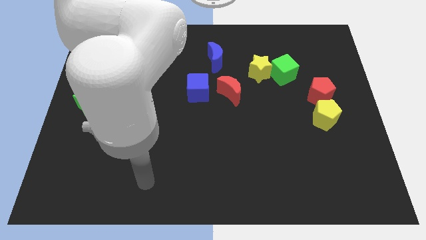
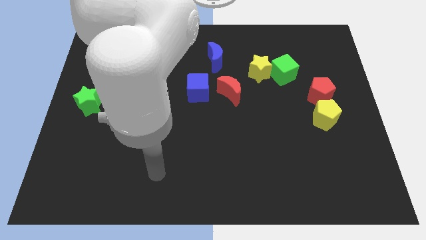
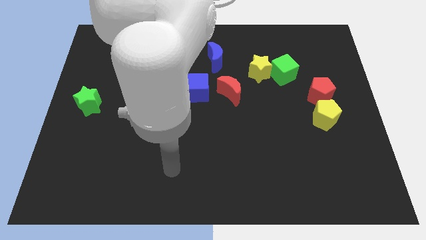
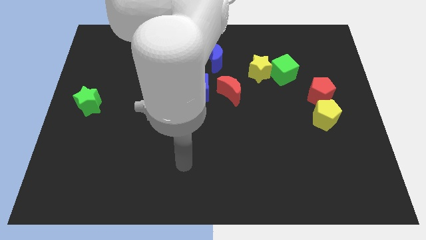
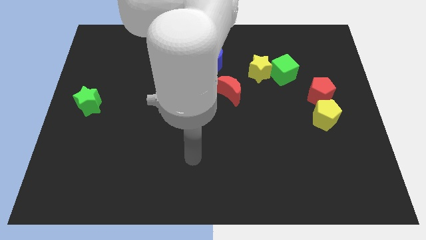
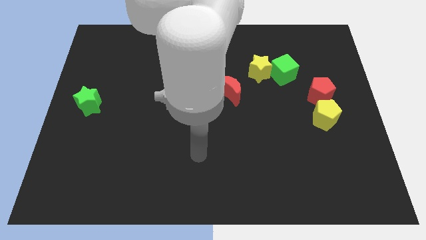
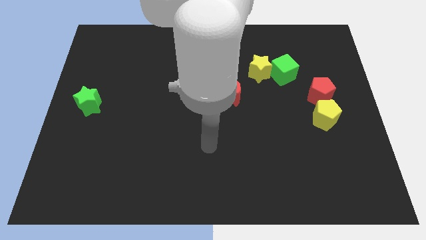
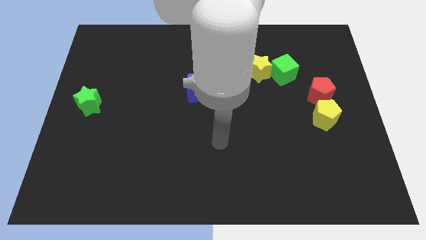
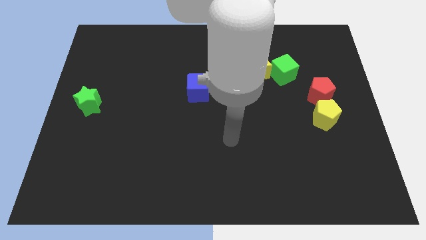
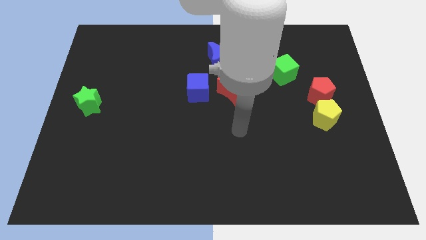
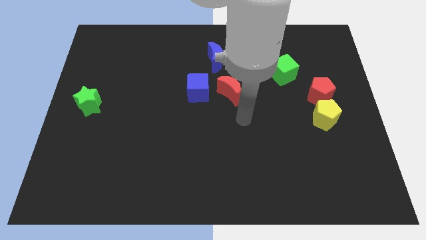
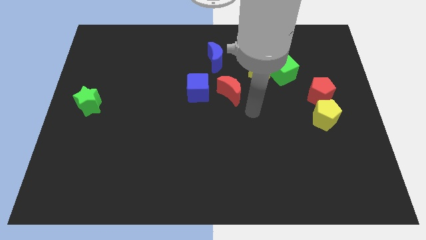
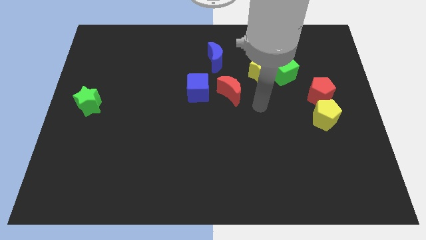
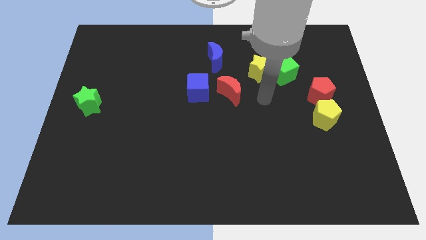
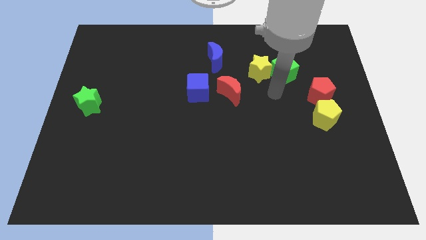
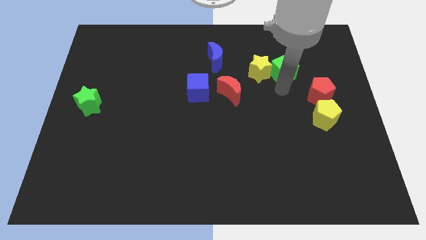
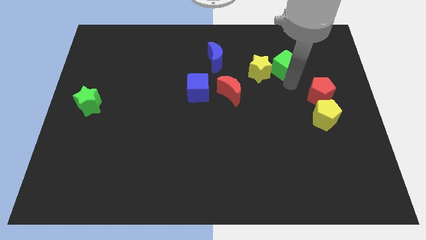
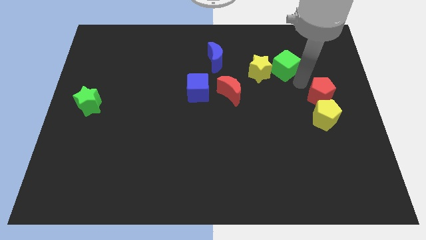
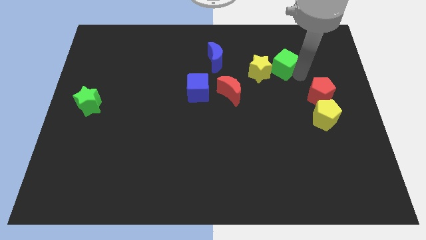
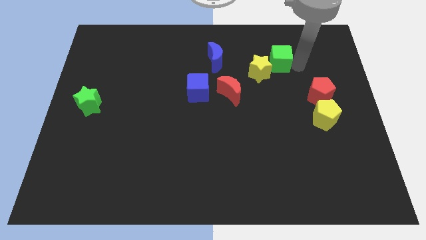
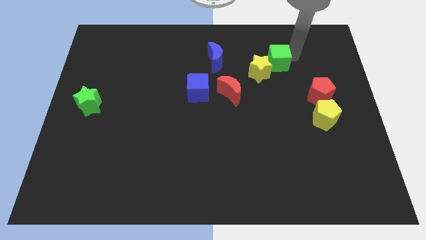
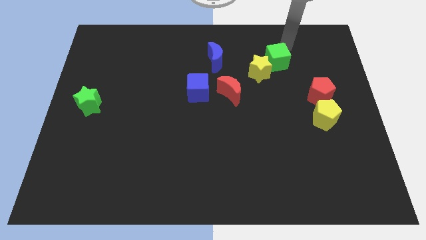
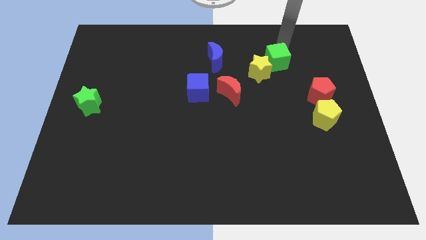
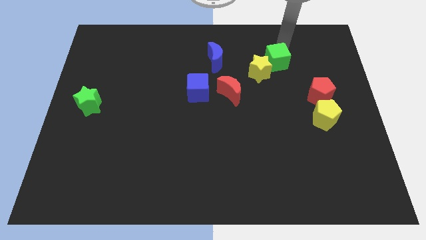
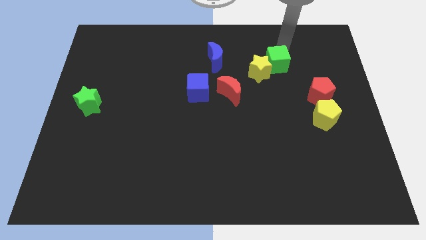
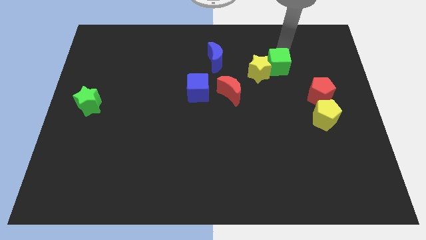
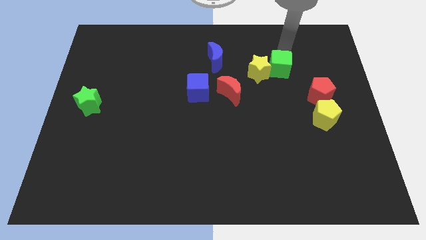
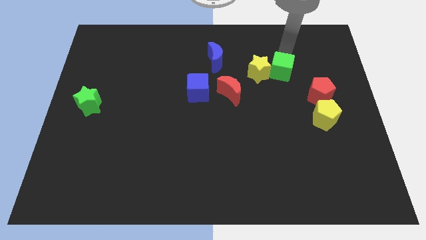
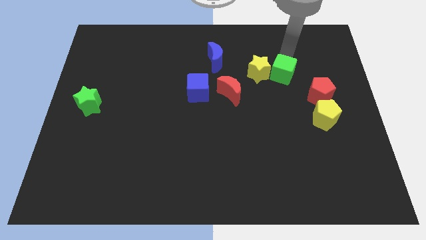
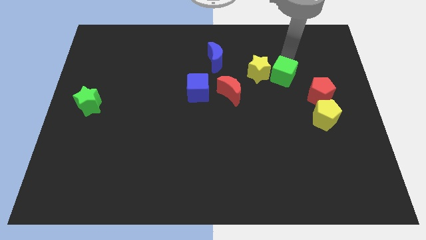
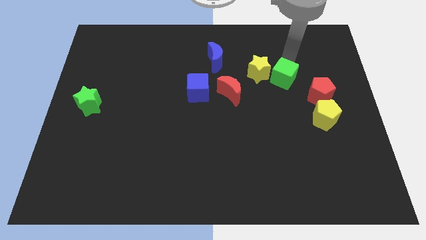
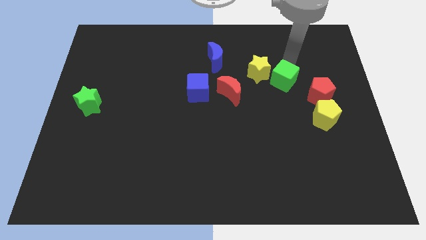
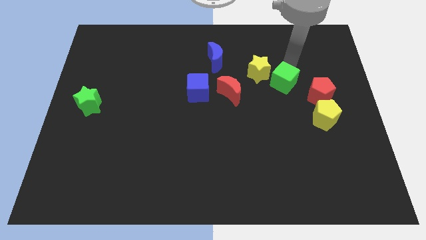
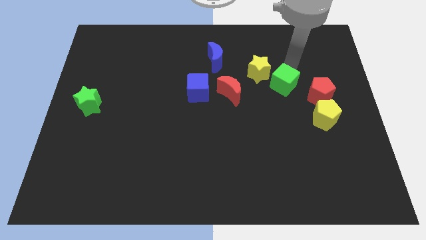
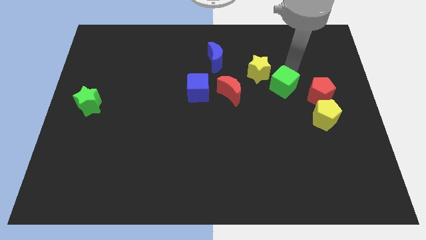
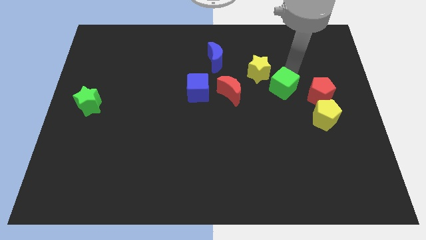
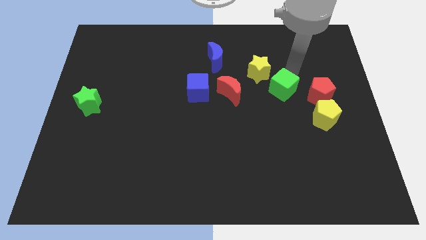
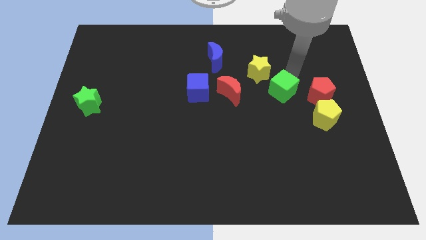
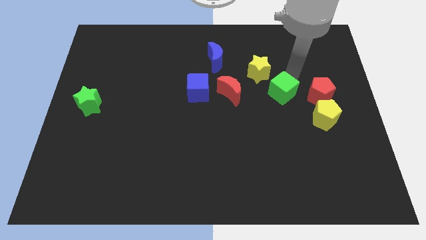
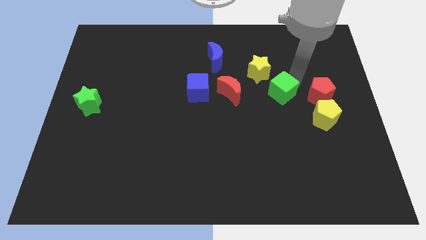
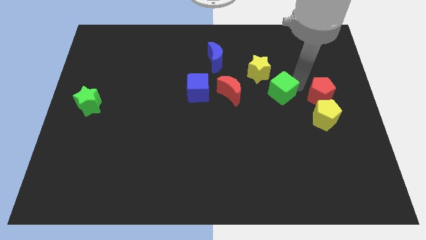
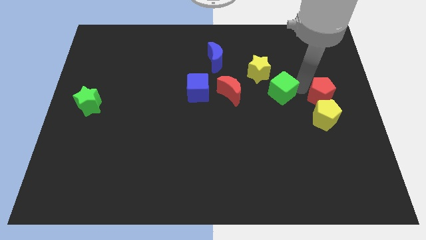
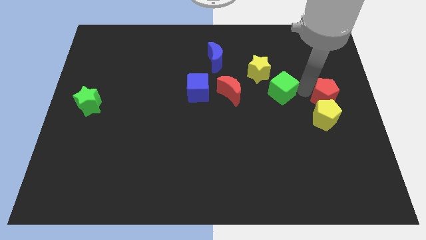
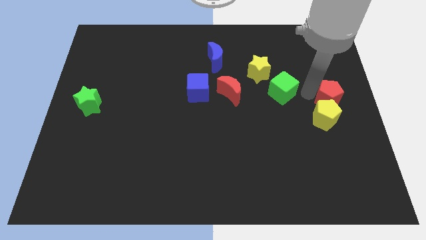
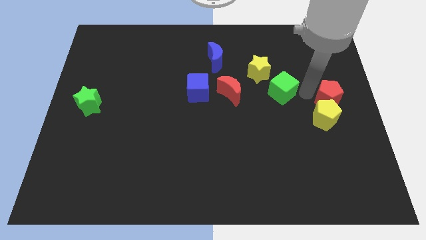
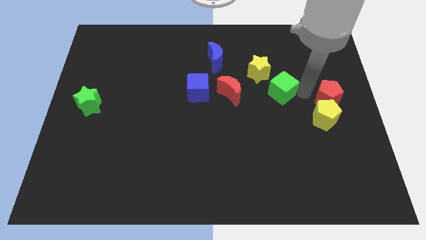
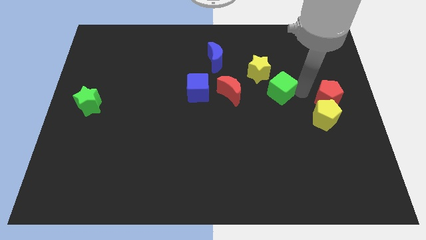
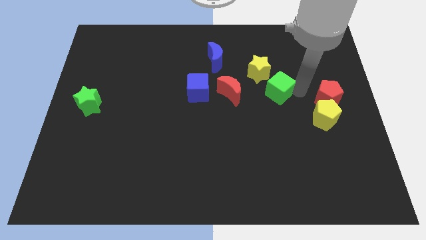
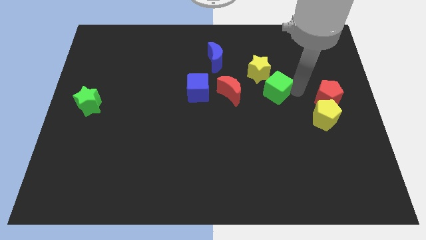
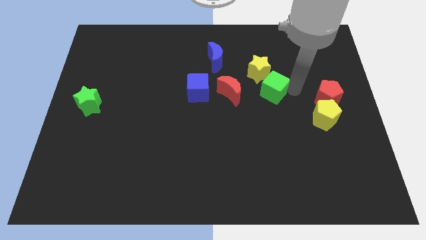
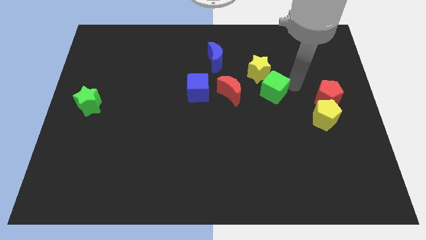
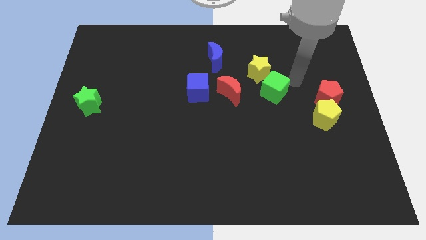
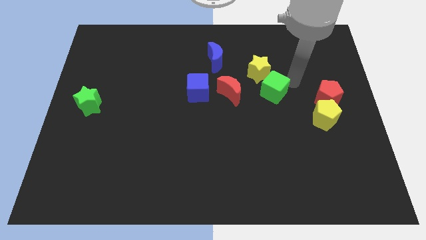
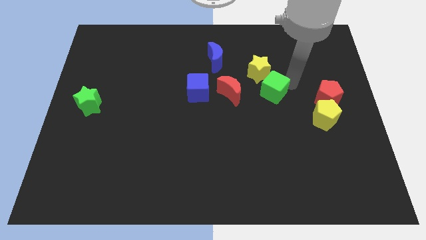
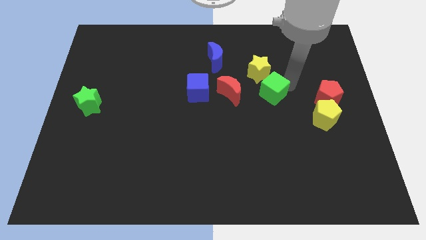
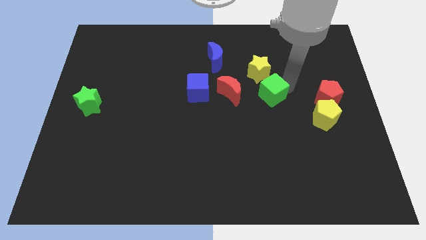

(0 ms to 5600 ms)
move the green cube downwards and left a bit

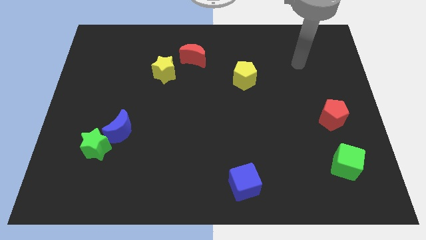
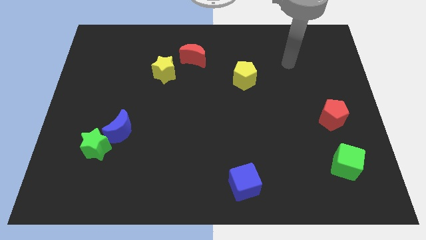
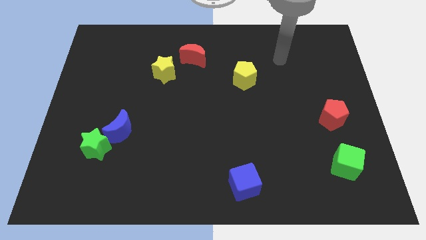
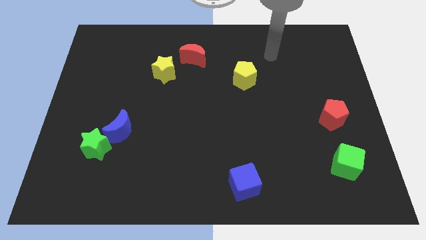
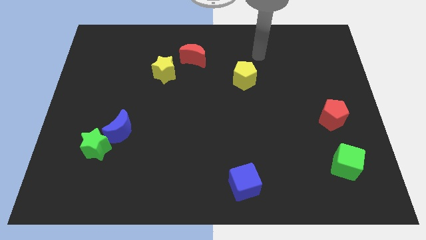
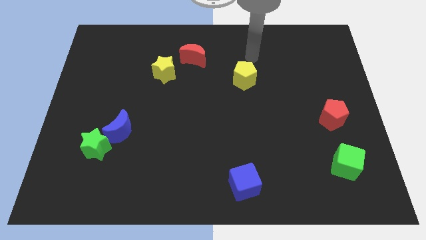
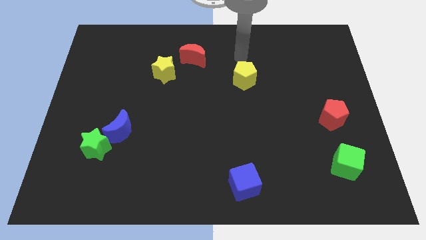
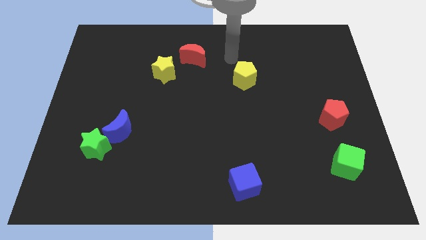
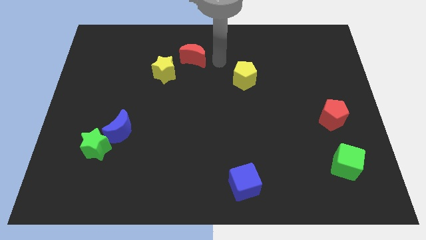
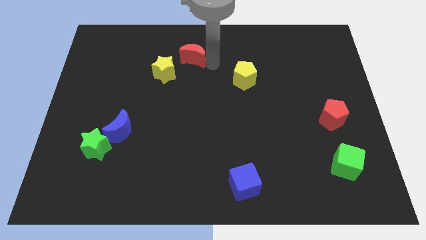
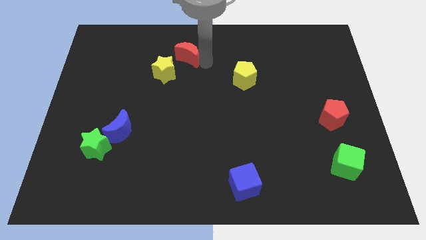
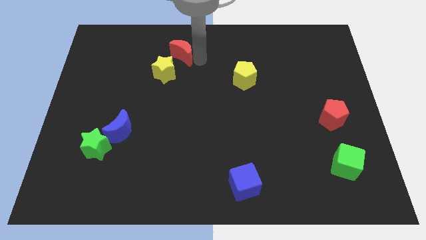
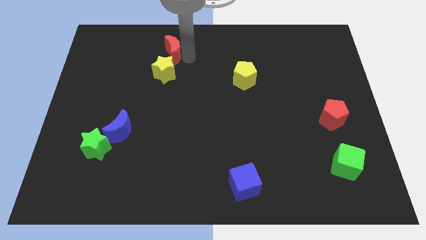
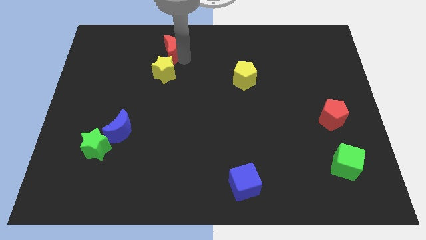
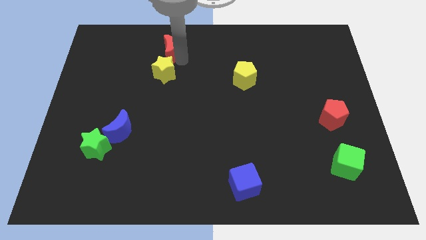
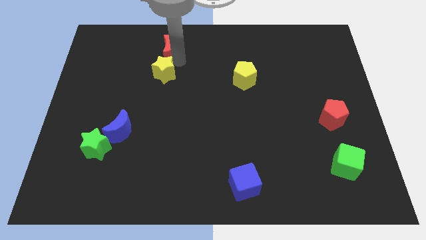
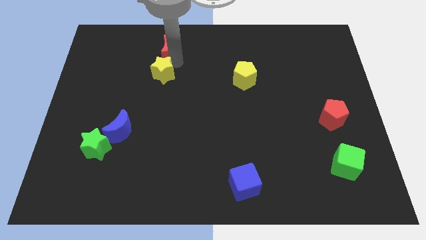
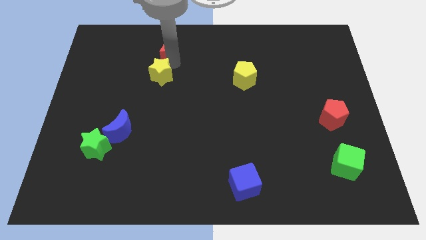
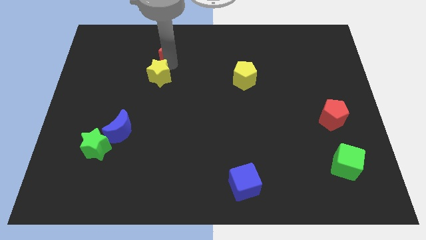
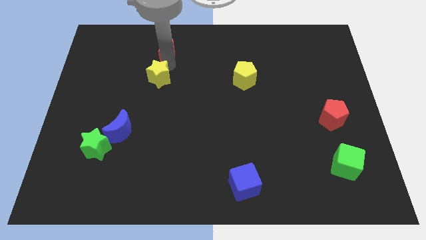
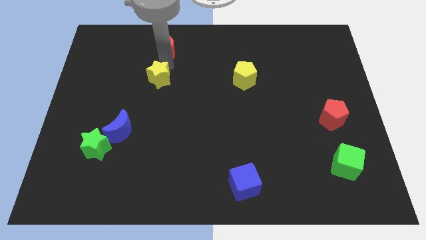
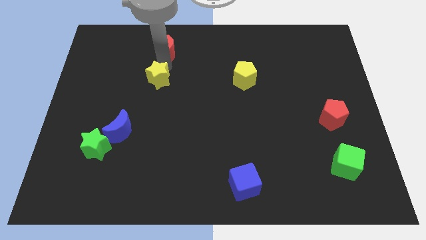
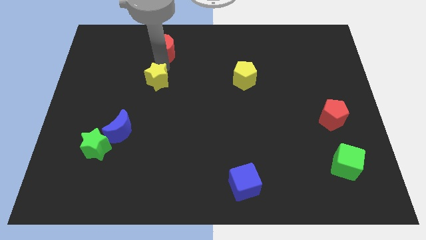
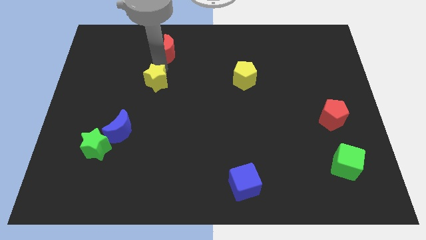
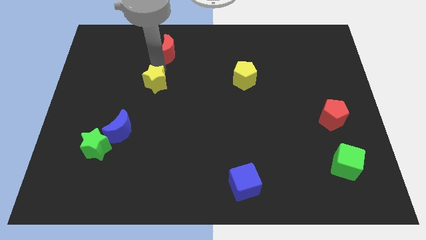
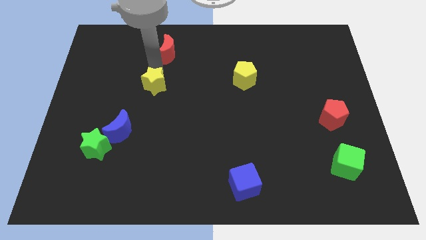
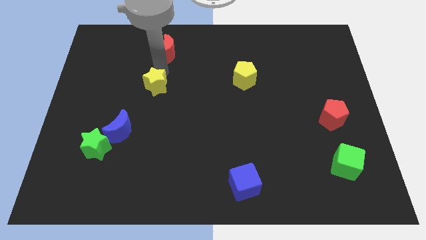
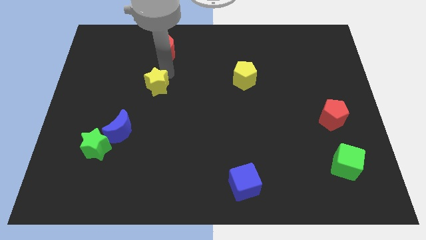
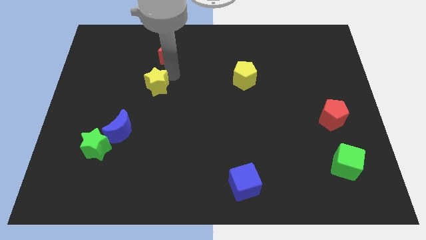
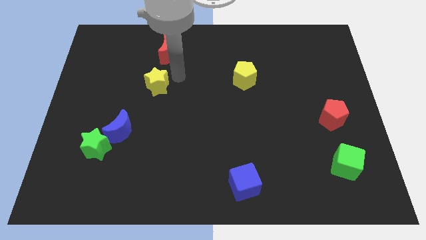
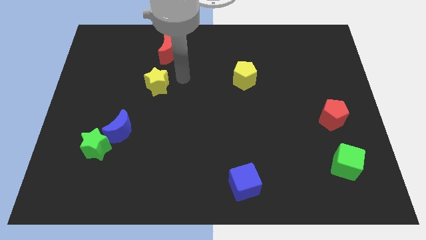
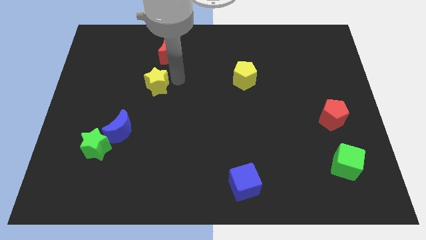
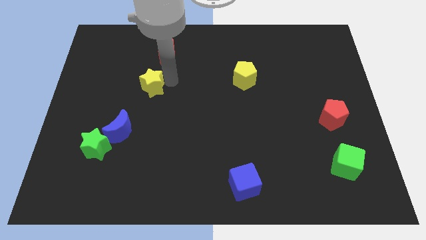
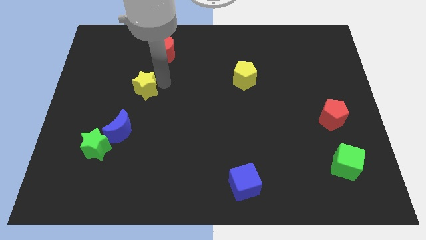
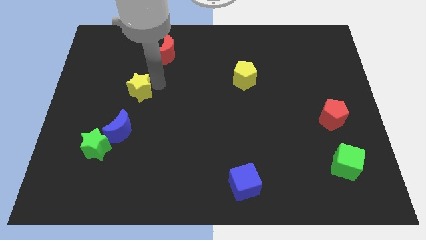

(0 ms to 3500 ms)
slightly push the yellow star down and then to the left
